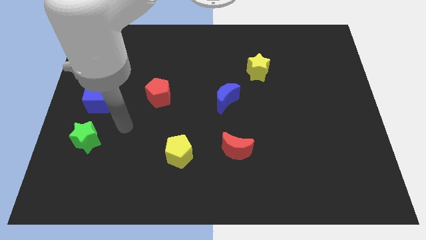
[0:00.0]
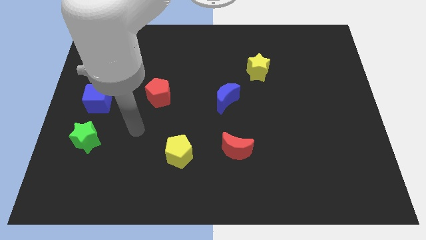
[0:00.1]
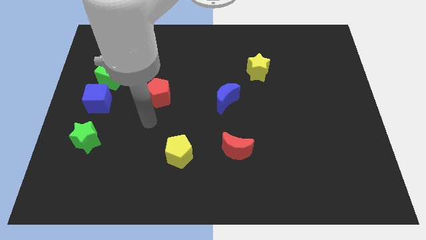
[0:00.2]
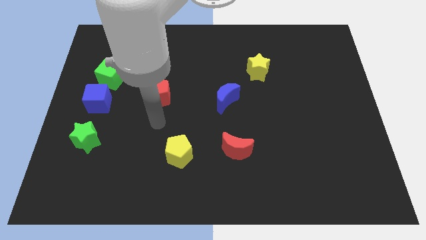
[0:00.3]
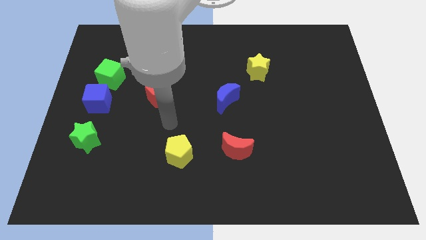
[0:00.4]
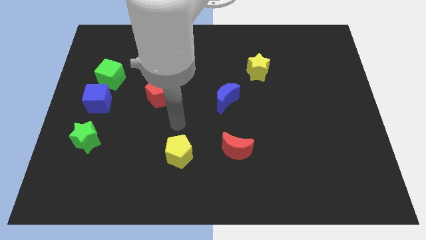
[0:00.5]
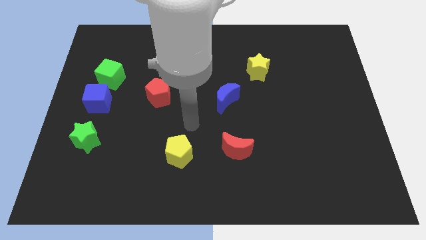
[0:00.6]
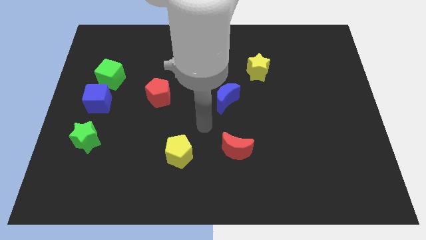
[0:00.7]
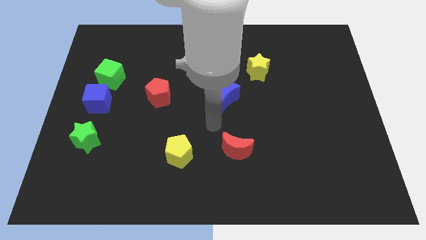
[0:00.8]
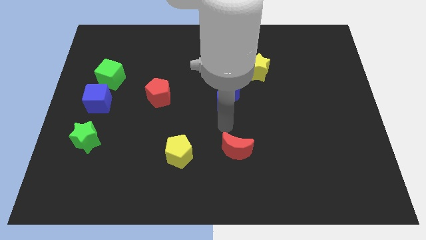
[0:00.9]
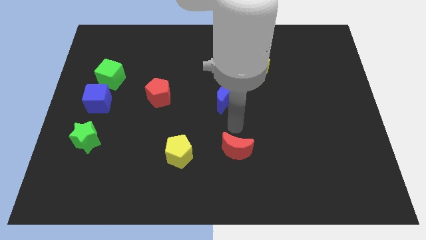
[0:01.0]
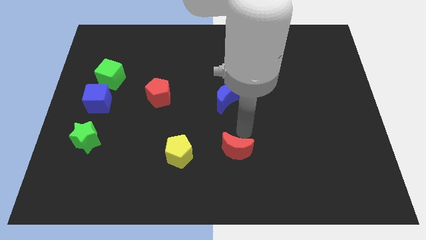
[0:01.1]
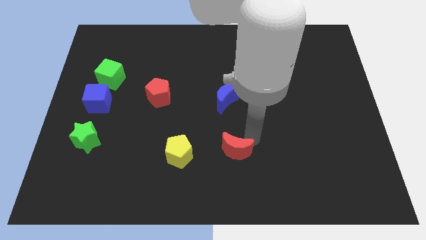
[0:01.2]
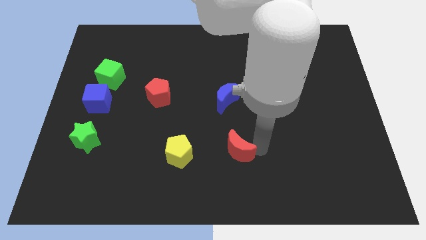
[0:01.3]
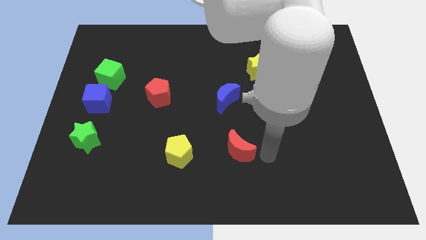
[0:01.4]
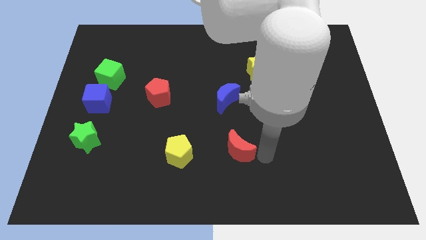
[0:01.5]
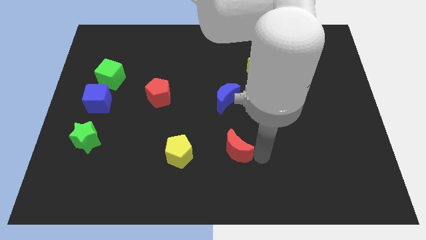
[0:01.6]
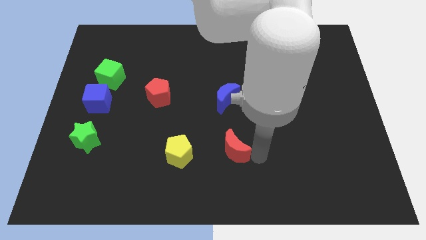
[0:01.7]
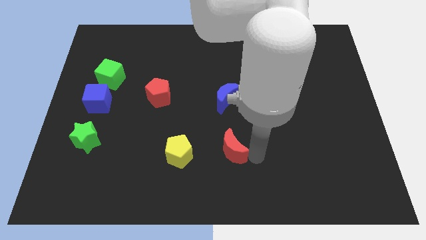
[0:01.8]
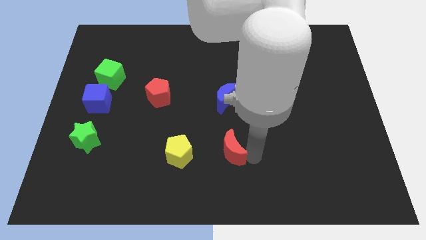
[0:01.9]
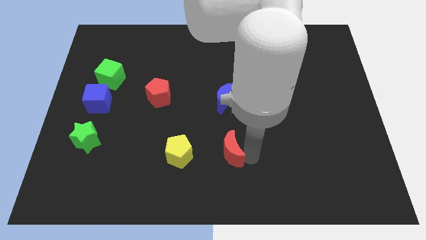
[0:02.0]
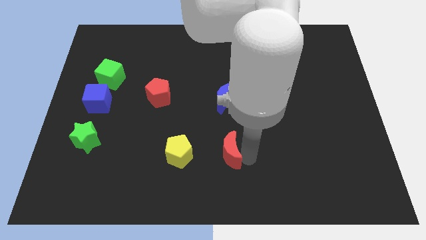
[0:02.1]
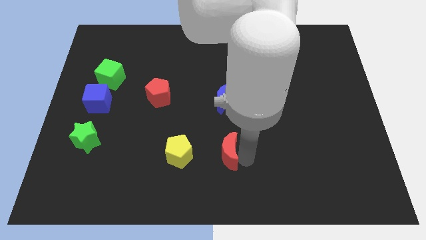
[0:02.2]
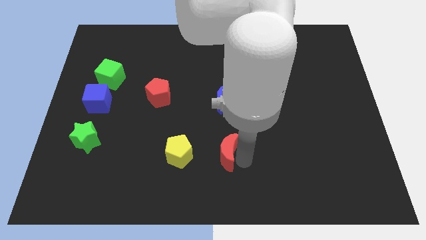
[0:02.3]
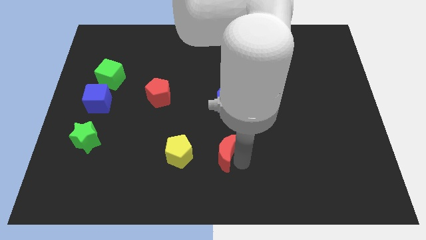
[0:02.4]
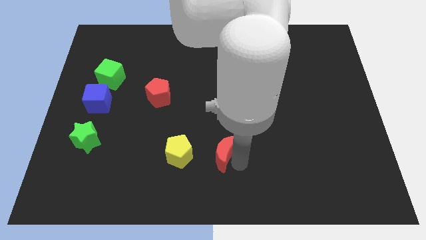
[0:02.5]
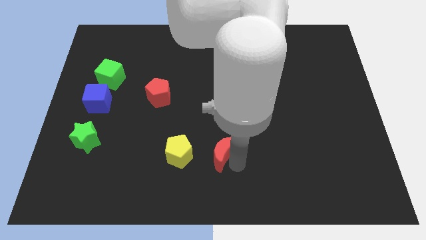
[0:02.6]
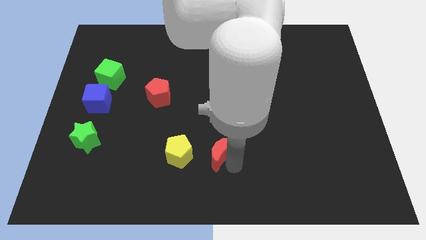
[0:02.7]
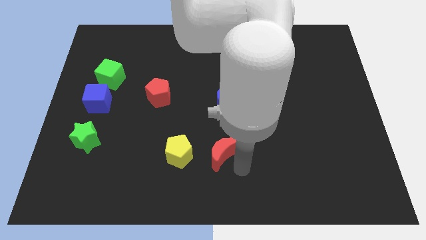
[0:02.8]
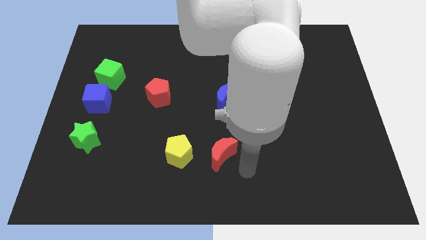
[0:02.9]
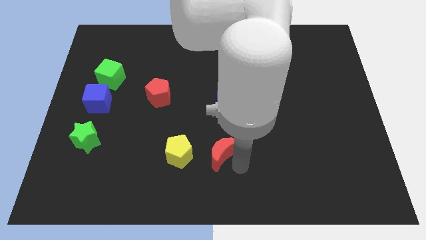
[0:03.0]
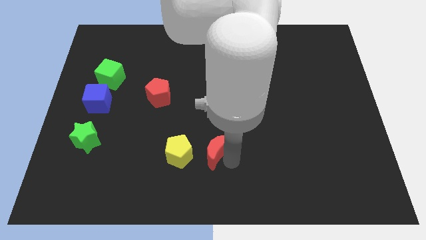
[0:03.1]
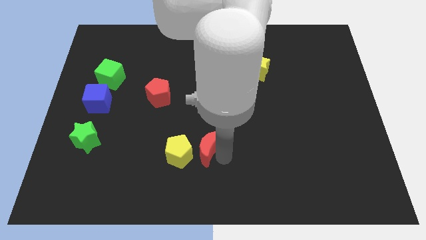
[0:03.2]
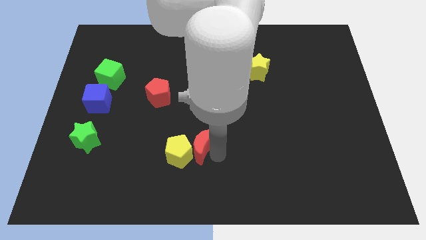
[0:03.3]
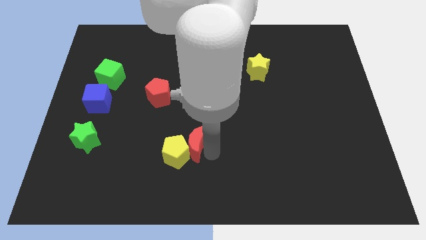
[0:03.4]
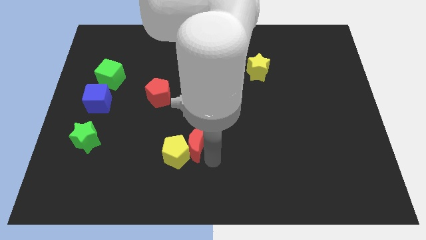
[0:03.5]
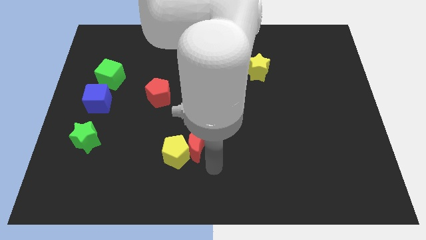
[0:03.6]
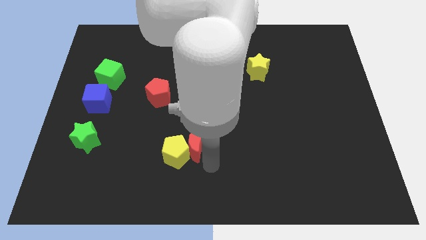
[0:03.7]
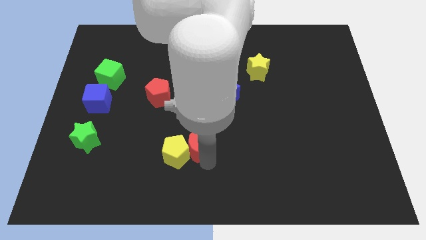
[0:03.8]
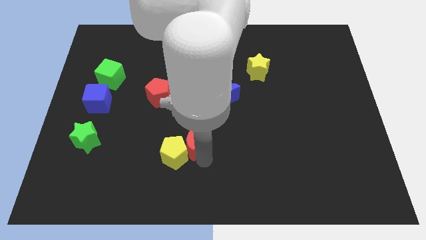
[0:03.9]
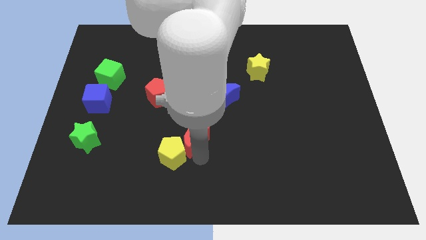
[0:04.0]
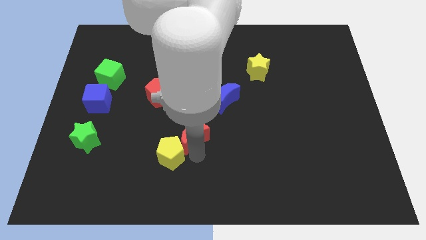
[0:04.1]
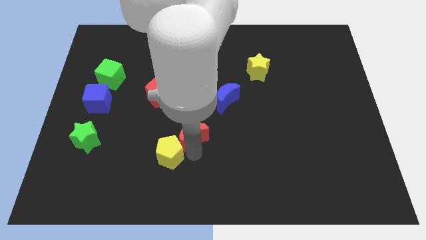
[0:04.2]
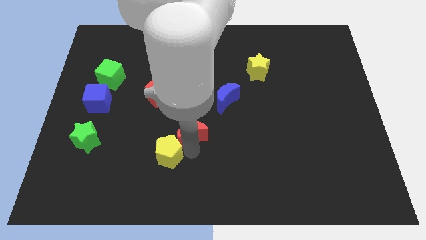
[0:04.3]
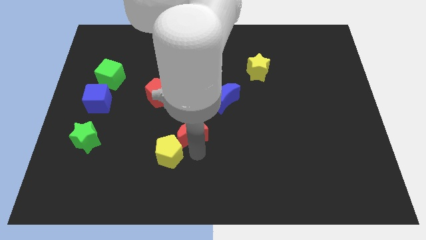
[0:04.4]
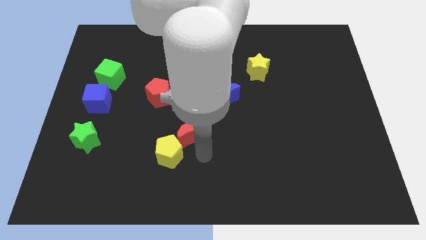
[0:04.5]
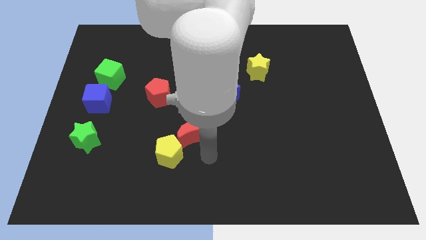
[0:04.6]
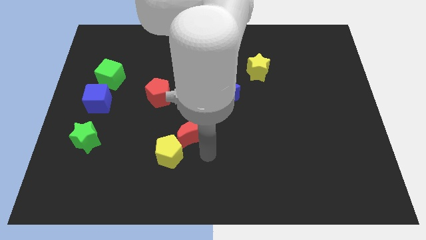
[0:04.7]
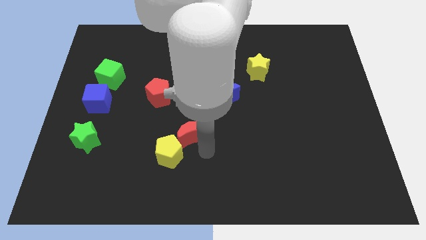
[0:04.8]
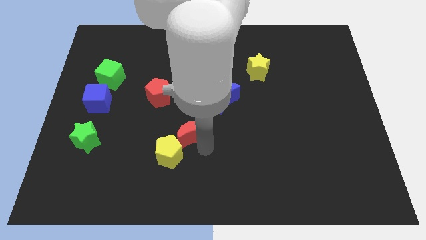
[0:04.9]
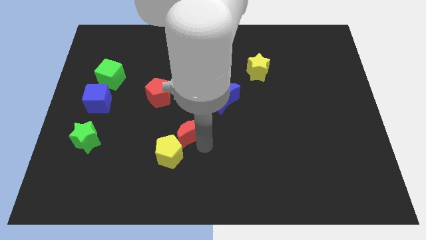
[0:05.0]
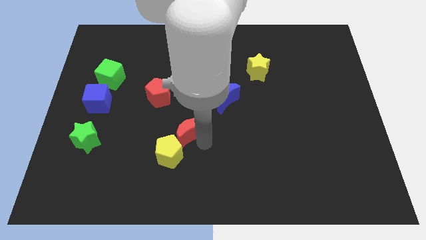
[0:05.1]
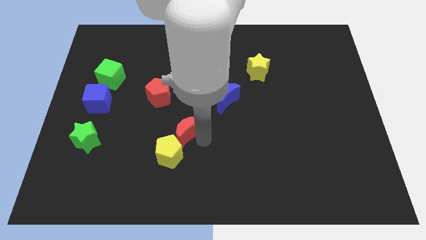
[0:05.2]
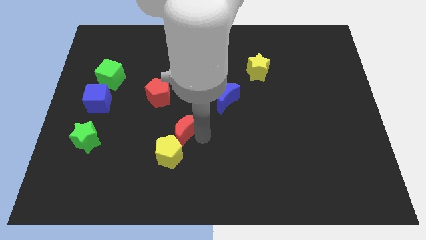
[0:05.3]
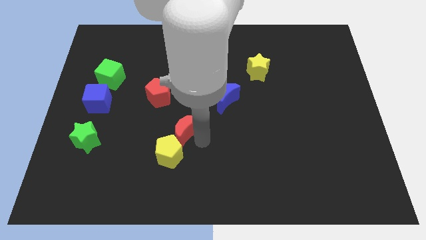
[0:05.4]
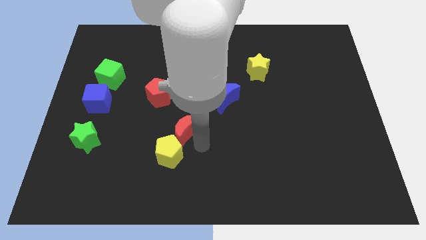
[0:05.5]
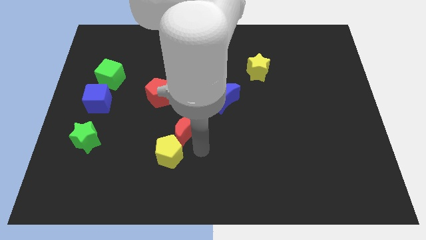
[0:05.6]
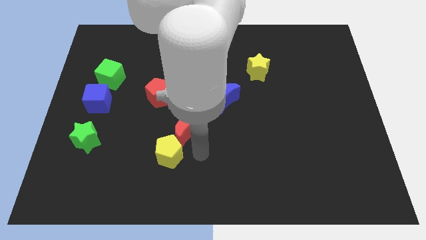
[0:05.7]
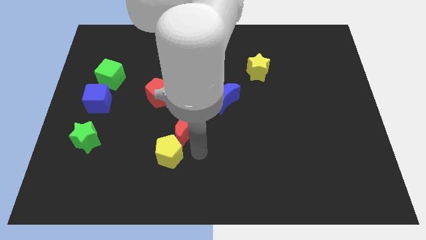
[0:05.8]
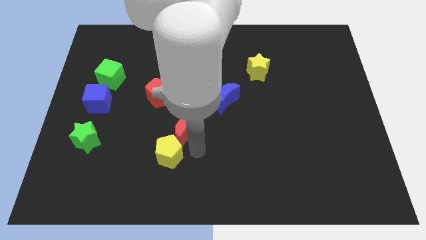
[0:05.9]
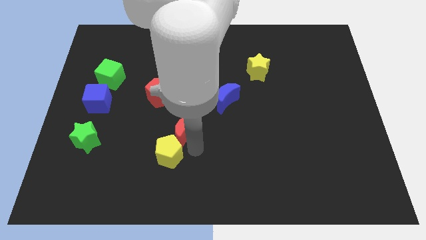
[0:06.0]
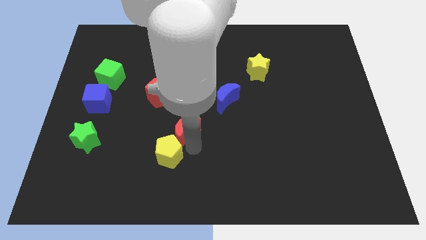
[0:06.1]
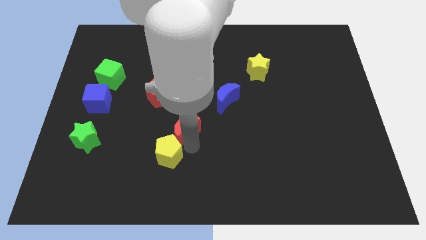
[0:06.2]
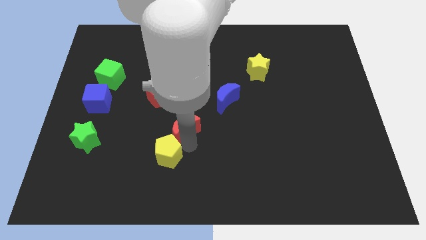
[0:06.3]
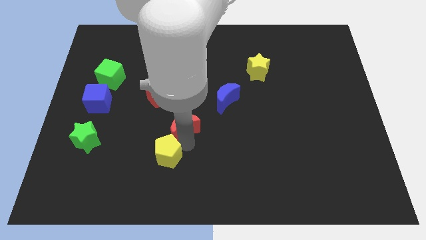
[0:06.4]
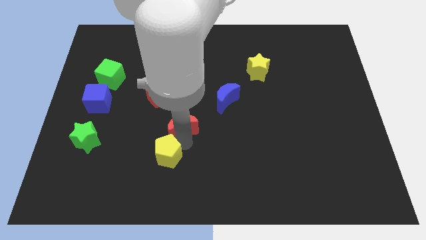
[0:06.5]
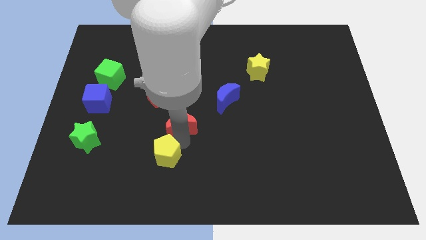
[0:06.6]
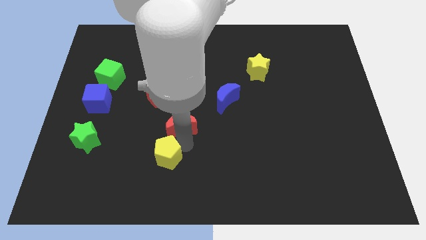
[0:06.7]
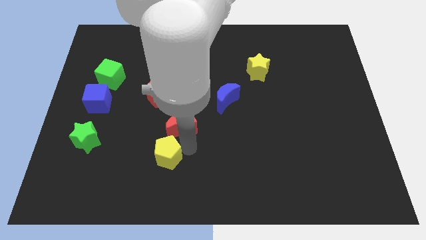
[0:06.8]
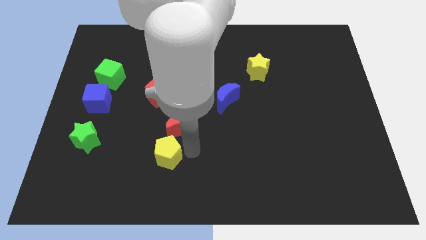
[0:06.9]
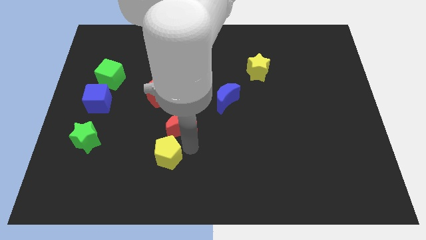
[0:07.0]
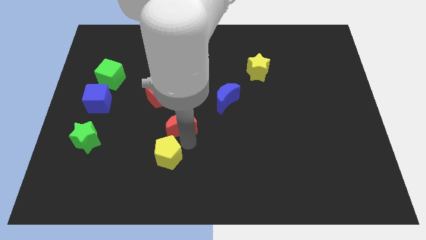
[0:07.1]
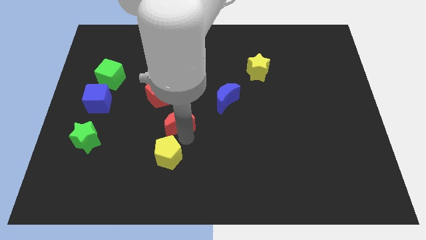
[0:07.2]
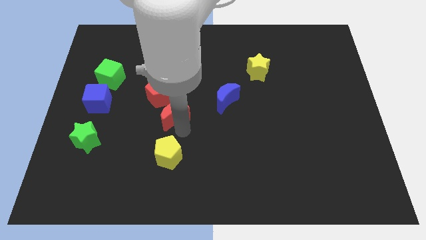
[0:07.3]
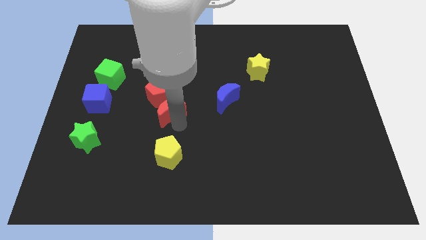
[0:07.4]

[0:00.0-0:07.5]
put the red moon towards the red pentagon
